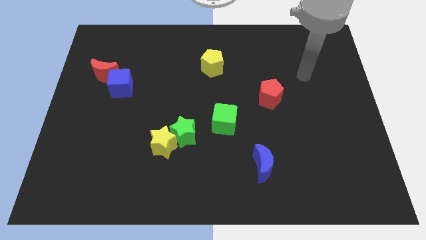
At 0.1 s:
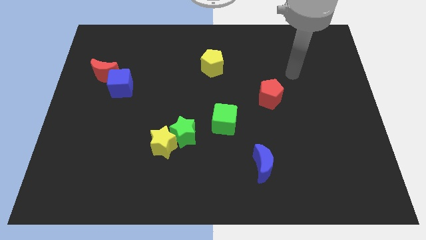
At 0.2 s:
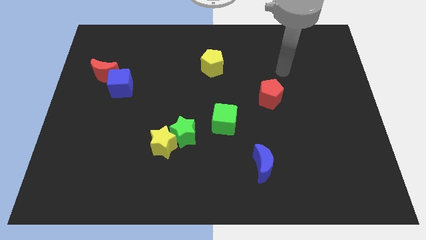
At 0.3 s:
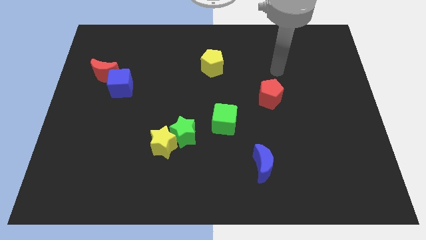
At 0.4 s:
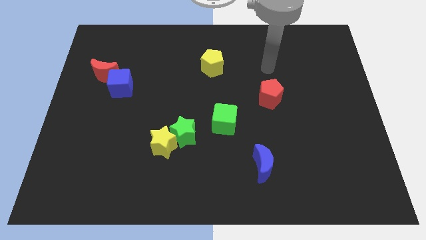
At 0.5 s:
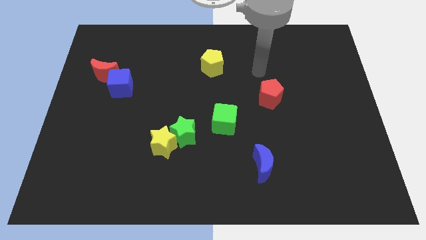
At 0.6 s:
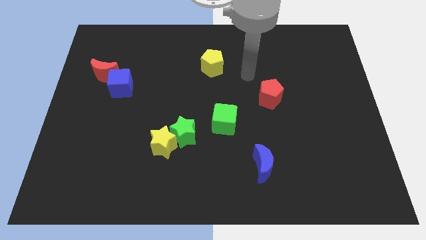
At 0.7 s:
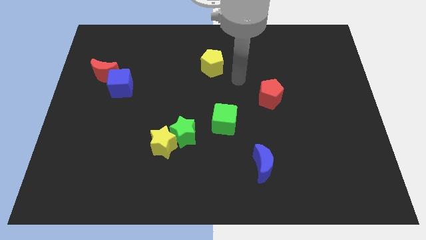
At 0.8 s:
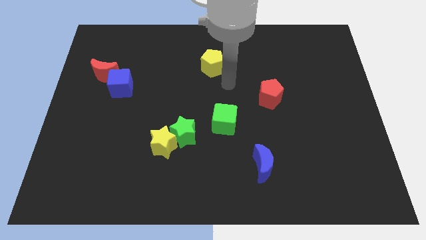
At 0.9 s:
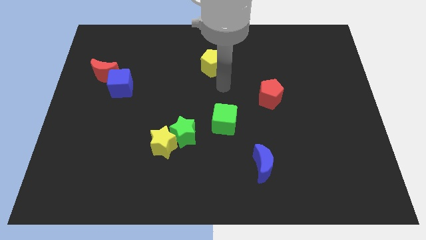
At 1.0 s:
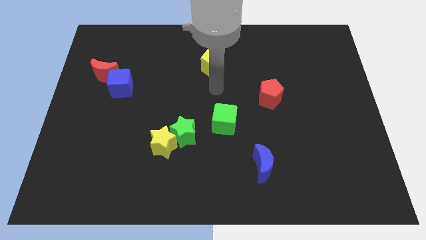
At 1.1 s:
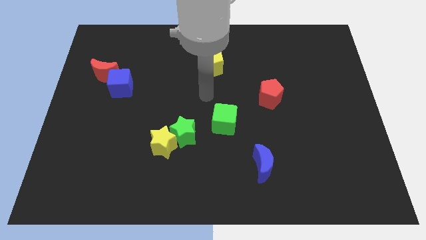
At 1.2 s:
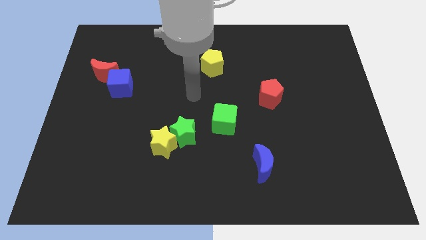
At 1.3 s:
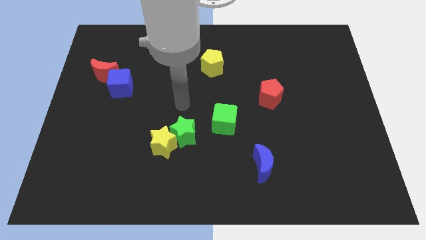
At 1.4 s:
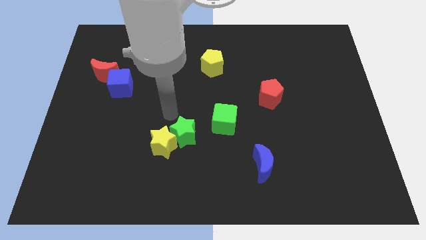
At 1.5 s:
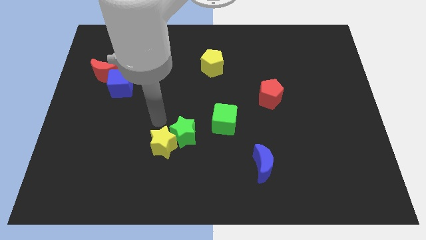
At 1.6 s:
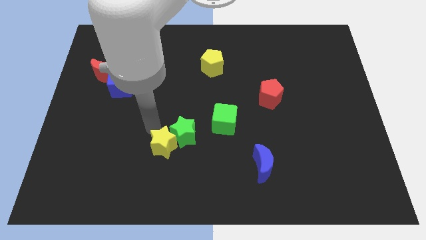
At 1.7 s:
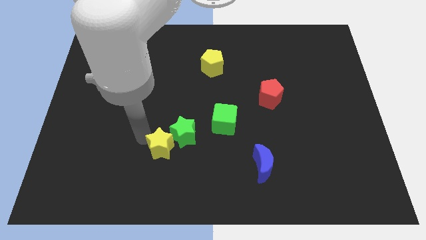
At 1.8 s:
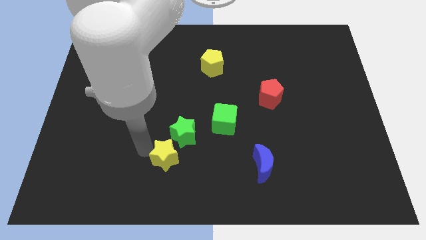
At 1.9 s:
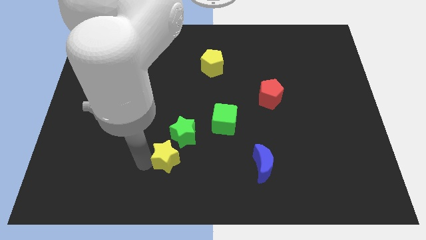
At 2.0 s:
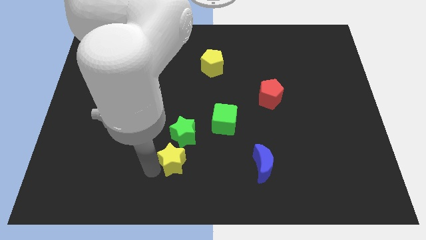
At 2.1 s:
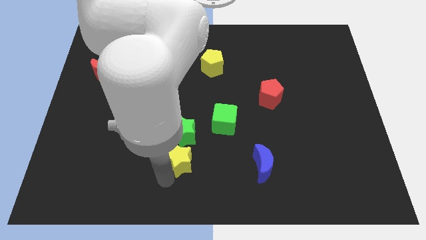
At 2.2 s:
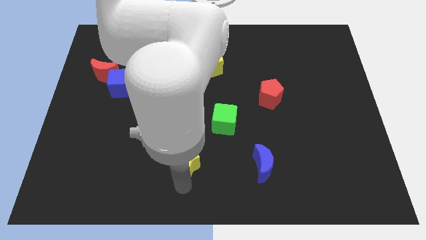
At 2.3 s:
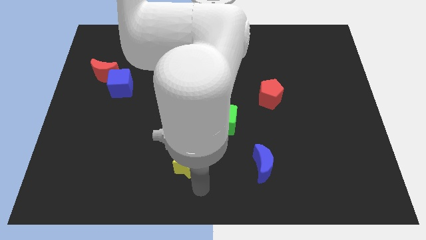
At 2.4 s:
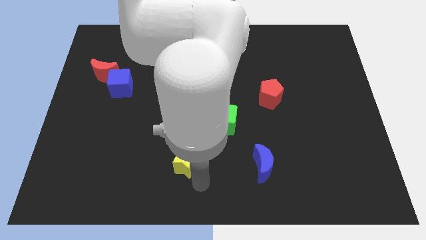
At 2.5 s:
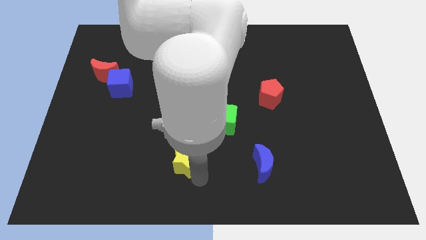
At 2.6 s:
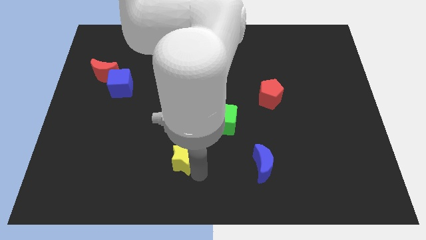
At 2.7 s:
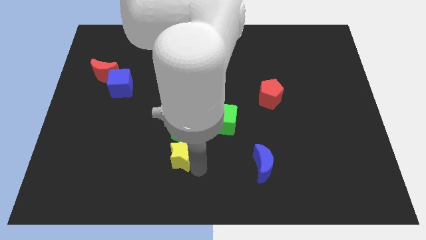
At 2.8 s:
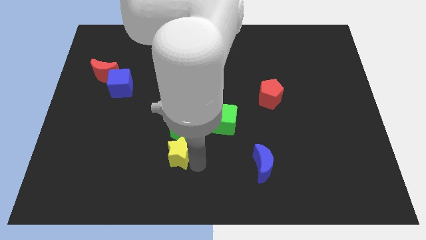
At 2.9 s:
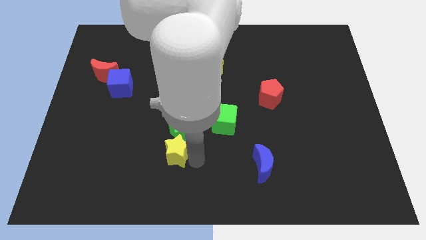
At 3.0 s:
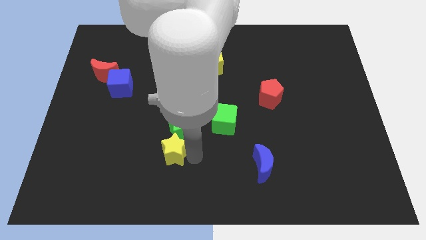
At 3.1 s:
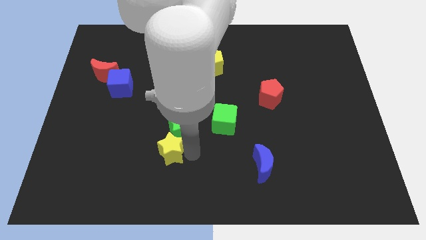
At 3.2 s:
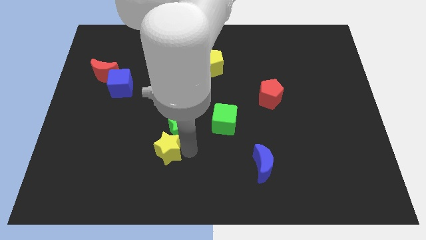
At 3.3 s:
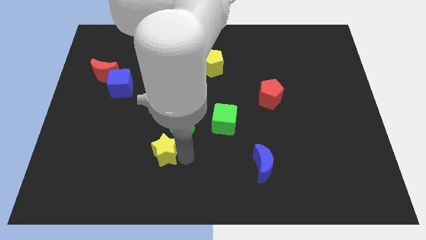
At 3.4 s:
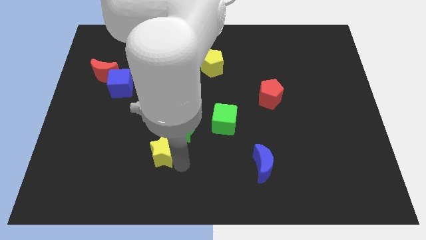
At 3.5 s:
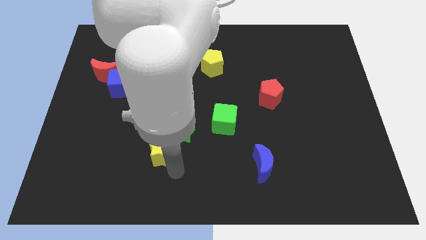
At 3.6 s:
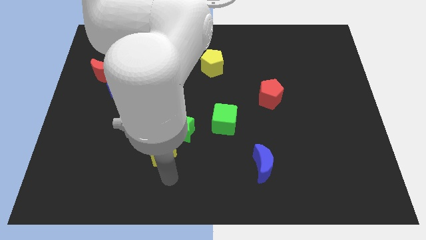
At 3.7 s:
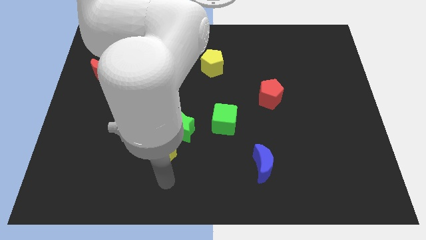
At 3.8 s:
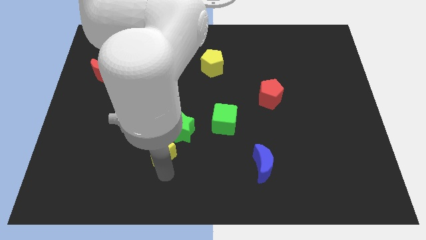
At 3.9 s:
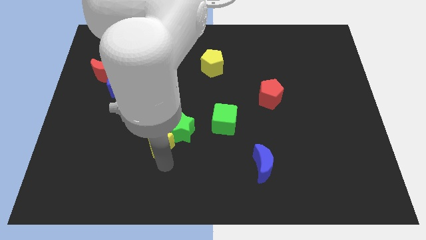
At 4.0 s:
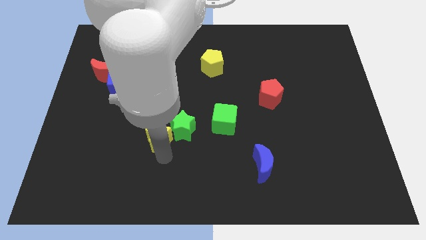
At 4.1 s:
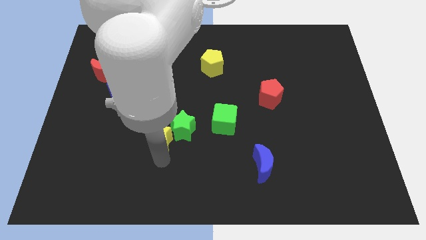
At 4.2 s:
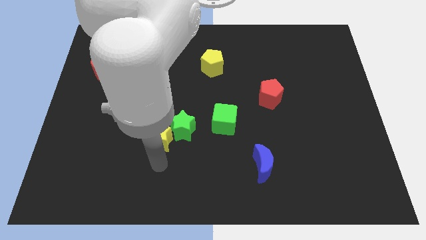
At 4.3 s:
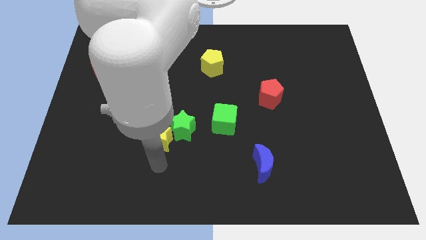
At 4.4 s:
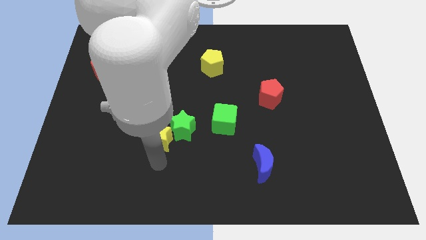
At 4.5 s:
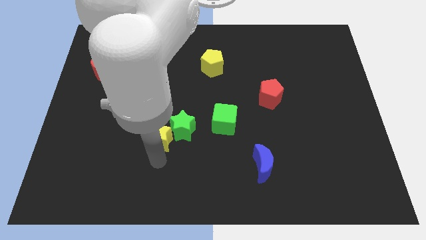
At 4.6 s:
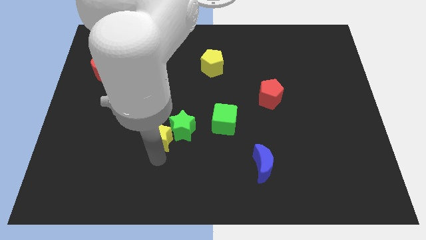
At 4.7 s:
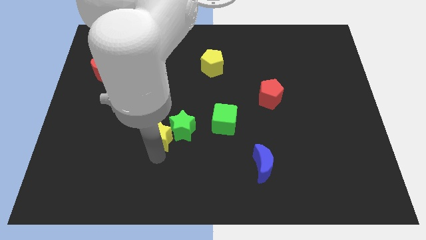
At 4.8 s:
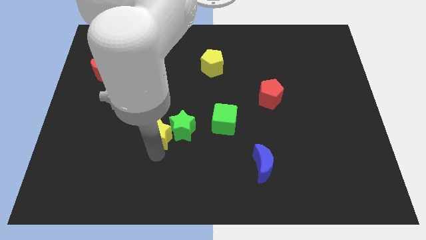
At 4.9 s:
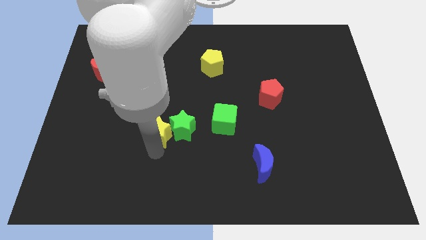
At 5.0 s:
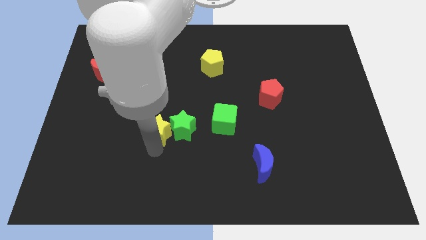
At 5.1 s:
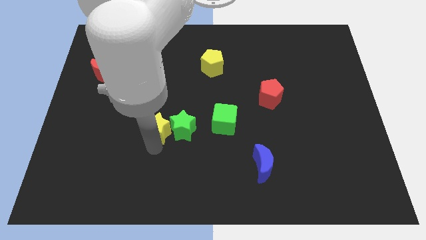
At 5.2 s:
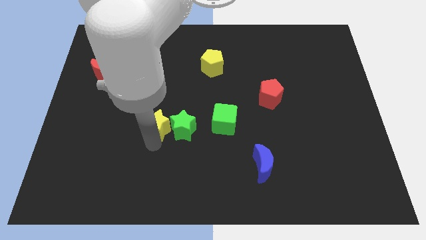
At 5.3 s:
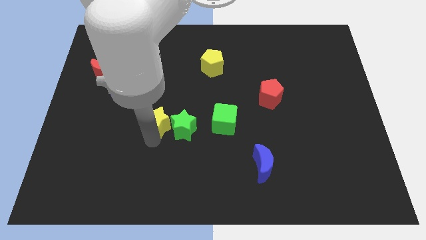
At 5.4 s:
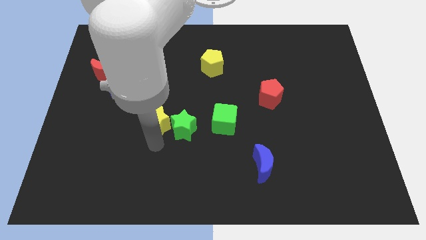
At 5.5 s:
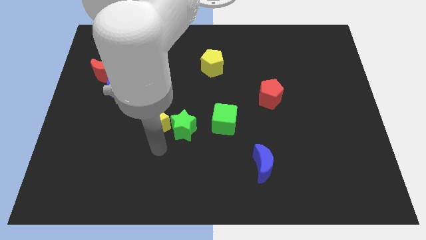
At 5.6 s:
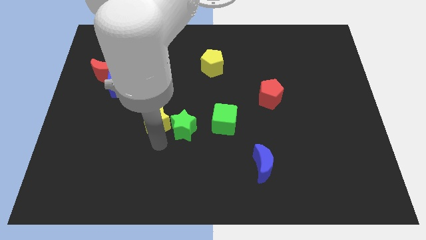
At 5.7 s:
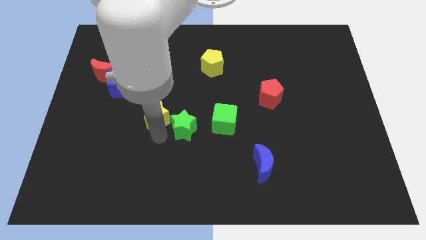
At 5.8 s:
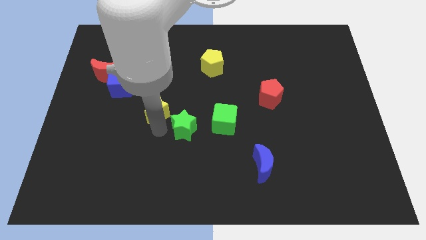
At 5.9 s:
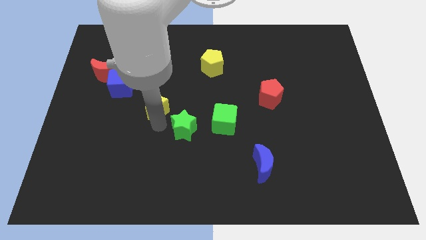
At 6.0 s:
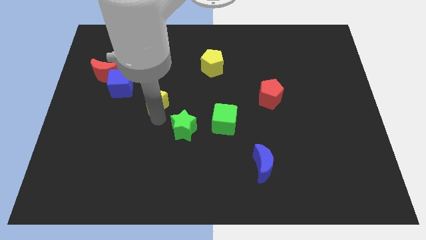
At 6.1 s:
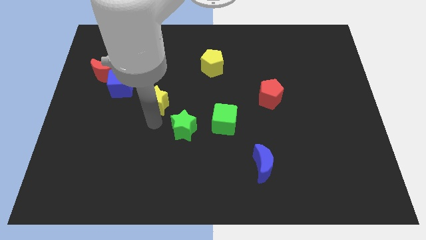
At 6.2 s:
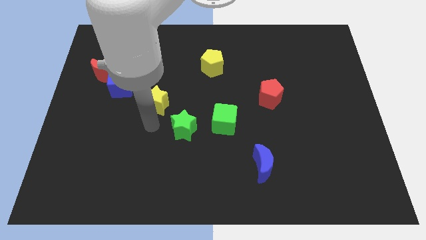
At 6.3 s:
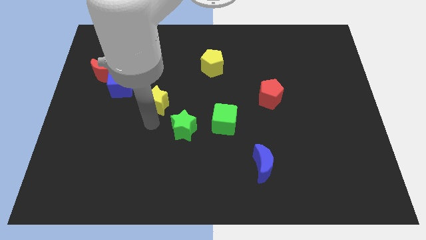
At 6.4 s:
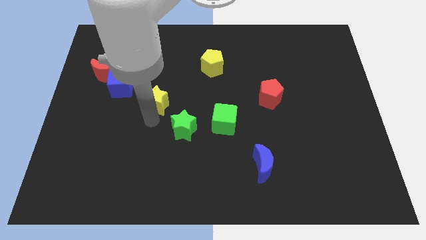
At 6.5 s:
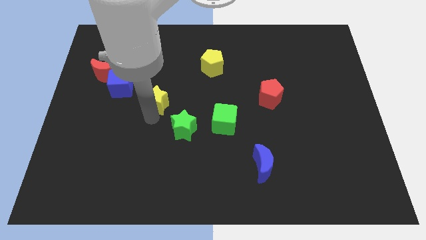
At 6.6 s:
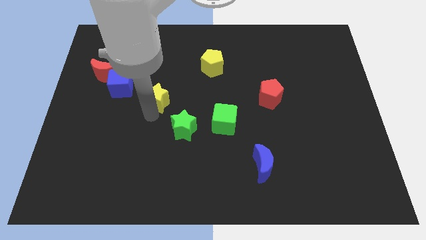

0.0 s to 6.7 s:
push the yellow star right of the blue cube
